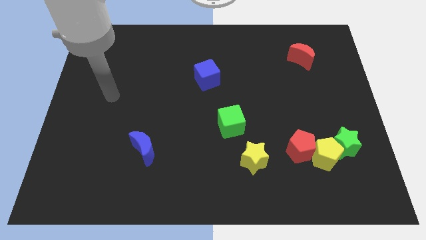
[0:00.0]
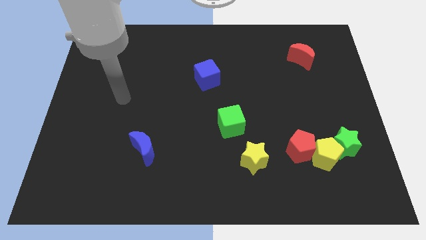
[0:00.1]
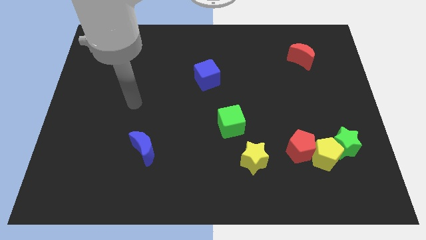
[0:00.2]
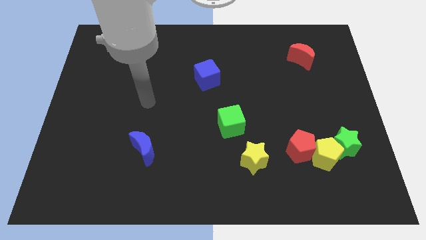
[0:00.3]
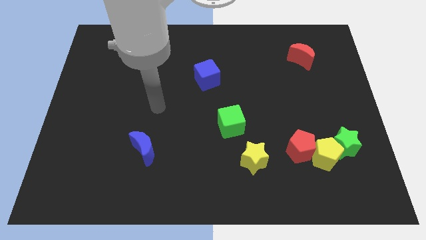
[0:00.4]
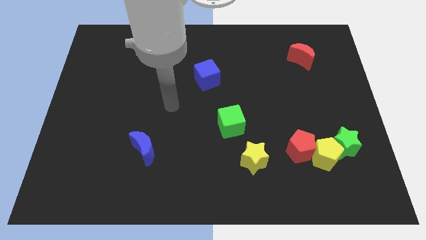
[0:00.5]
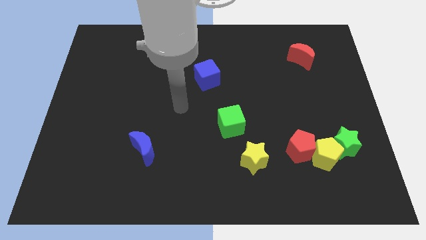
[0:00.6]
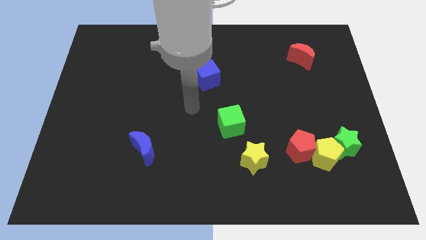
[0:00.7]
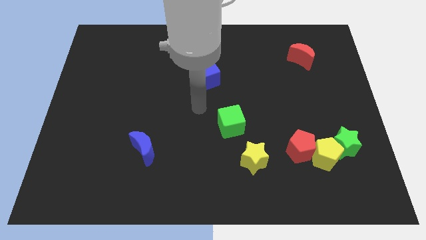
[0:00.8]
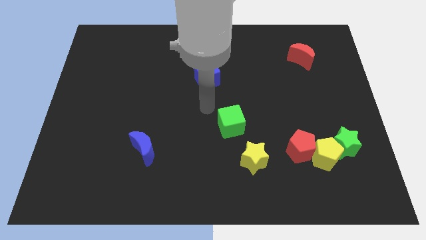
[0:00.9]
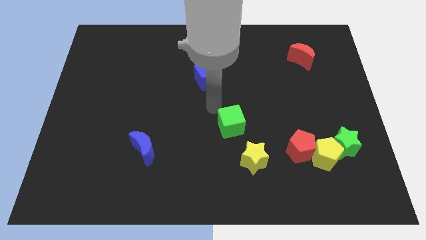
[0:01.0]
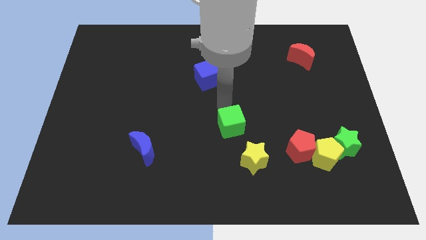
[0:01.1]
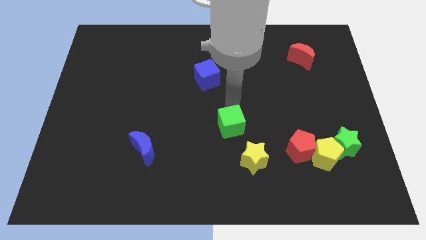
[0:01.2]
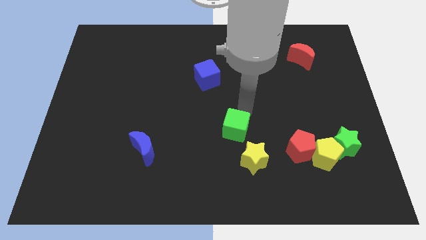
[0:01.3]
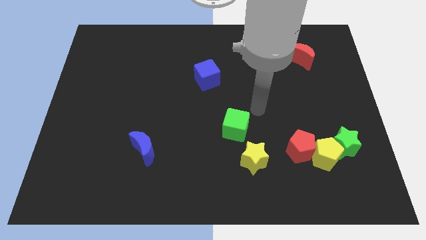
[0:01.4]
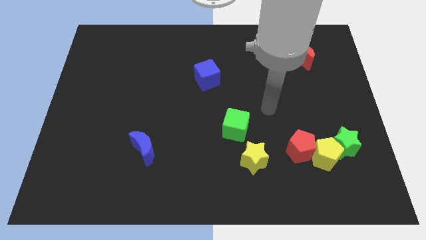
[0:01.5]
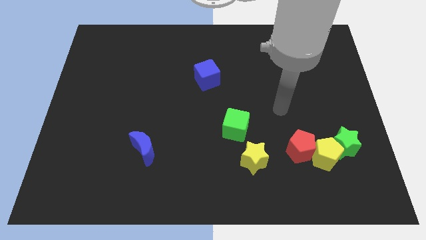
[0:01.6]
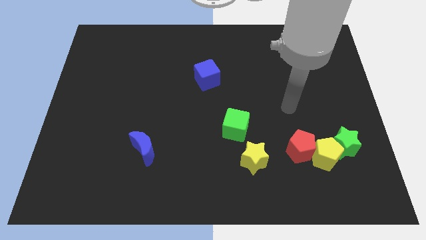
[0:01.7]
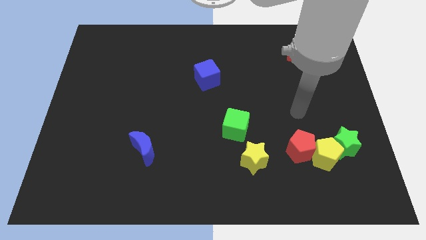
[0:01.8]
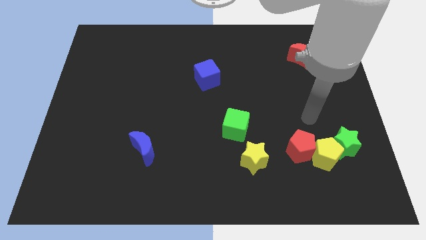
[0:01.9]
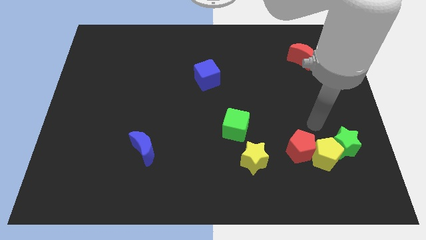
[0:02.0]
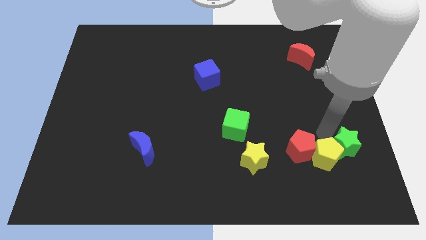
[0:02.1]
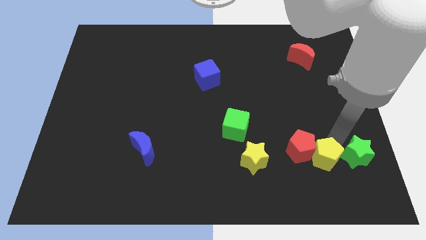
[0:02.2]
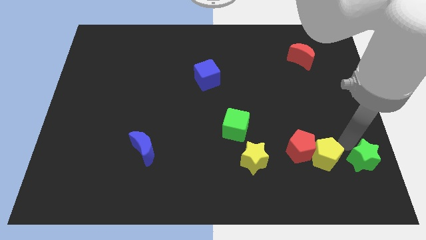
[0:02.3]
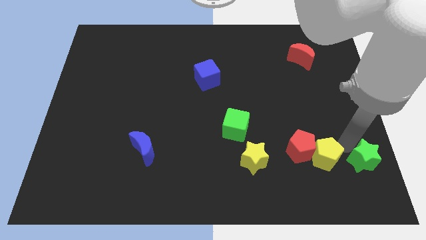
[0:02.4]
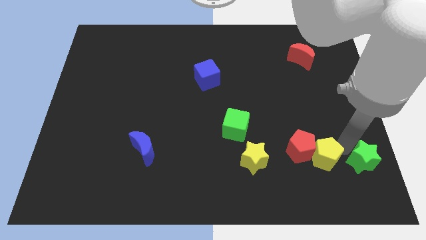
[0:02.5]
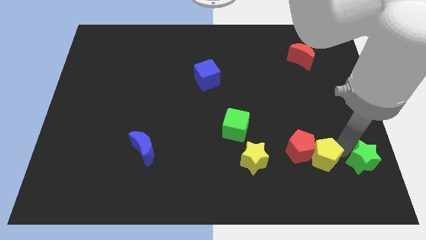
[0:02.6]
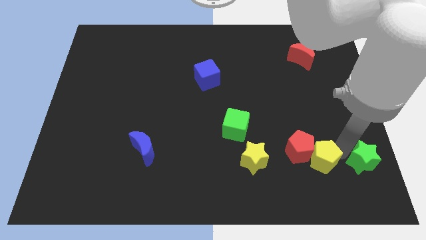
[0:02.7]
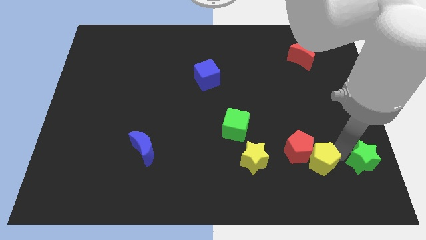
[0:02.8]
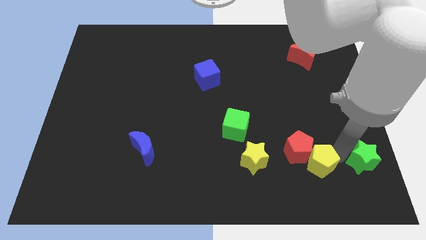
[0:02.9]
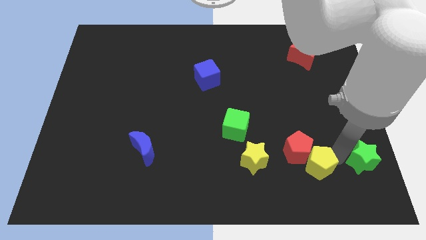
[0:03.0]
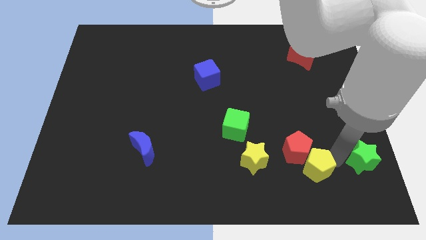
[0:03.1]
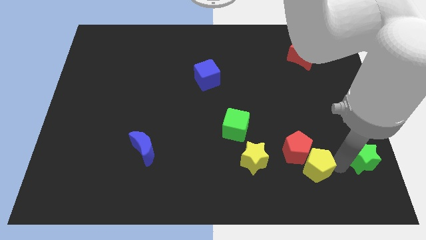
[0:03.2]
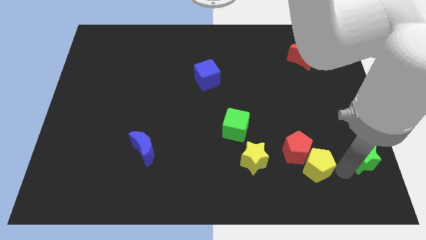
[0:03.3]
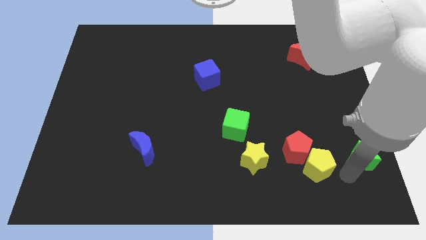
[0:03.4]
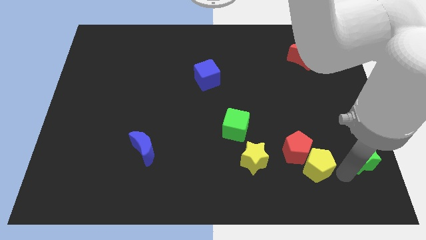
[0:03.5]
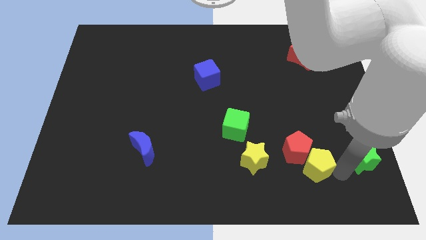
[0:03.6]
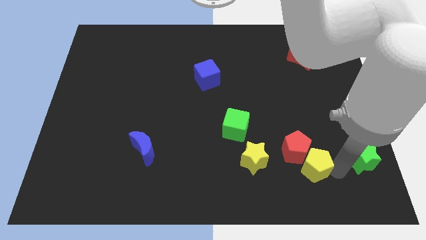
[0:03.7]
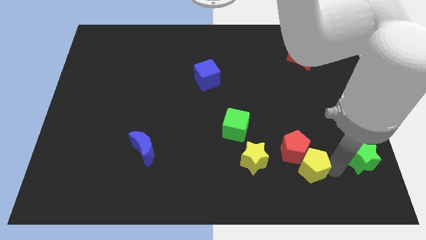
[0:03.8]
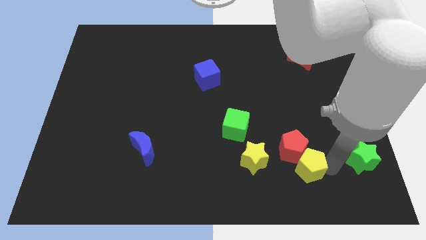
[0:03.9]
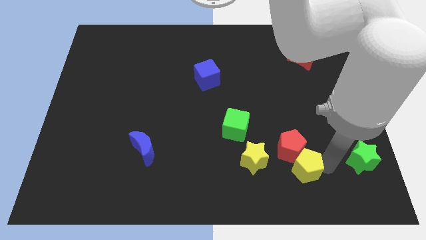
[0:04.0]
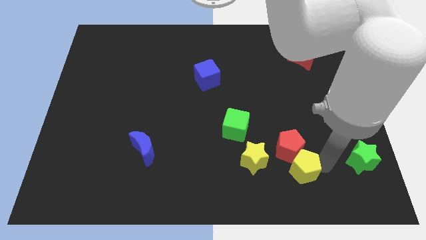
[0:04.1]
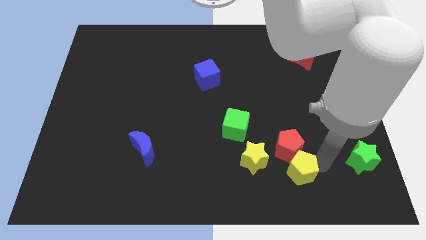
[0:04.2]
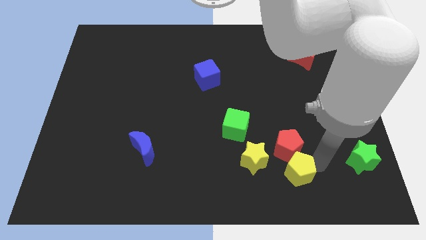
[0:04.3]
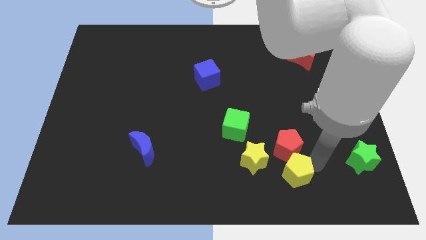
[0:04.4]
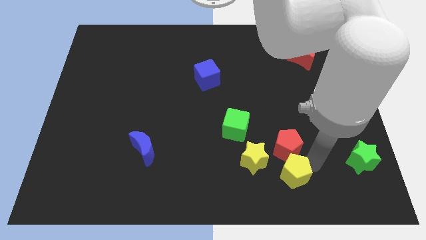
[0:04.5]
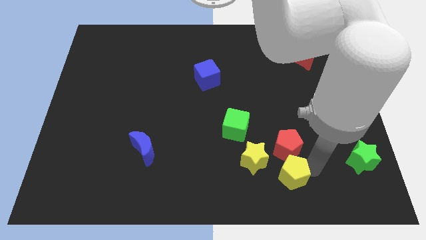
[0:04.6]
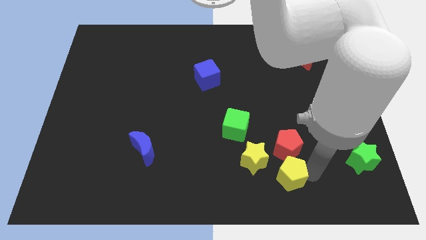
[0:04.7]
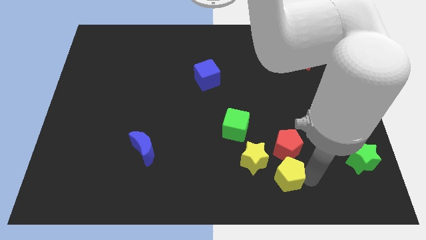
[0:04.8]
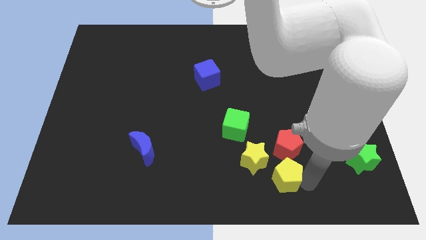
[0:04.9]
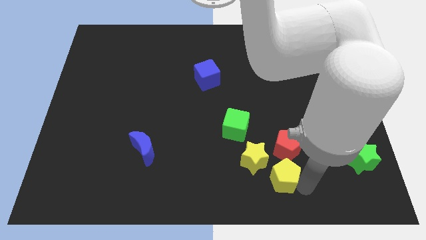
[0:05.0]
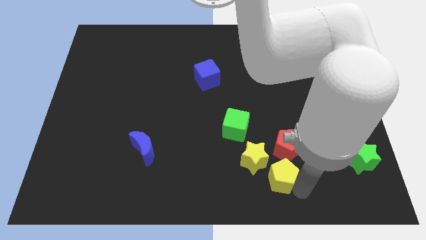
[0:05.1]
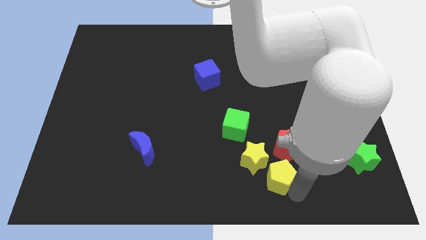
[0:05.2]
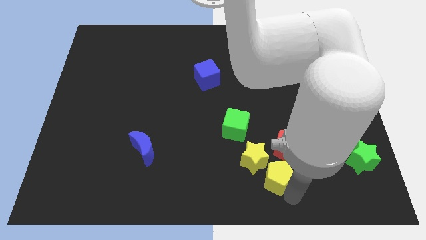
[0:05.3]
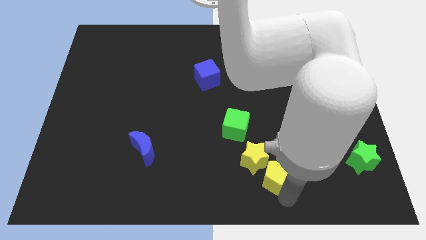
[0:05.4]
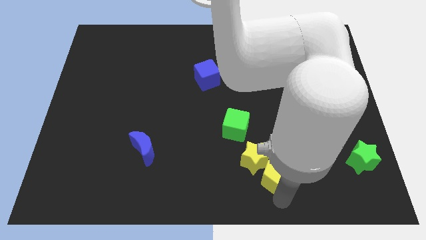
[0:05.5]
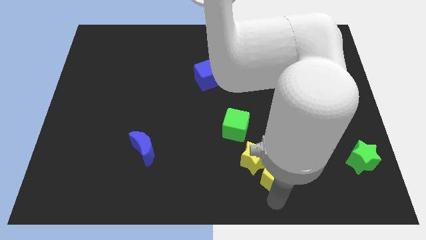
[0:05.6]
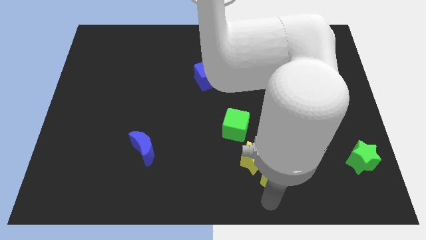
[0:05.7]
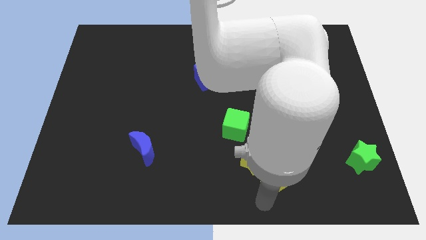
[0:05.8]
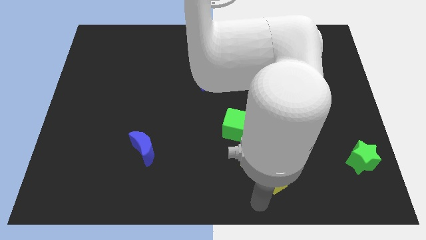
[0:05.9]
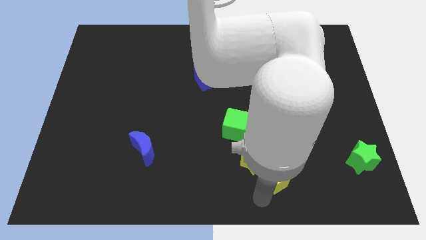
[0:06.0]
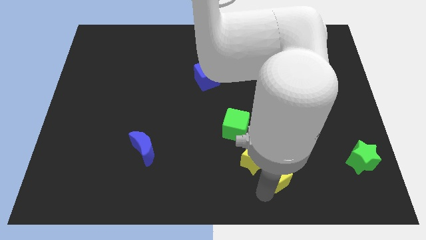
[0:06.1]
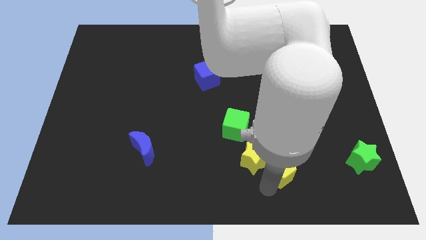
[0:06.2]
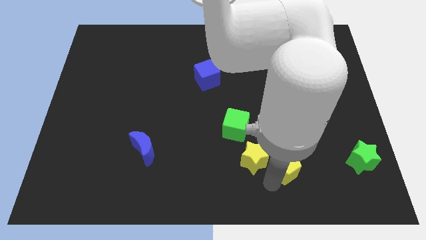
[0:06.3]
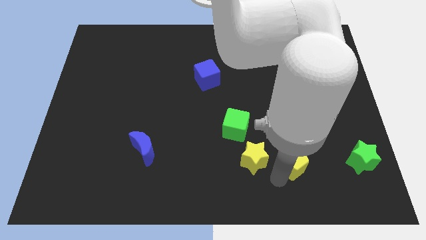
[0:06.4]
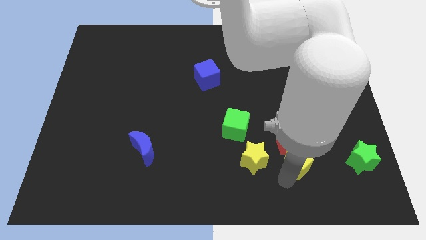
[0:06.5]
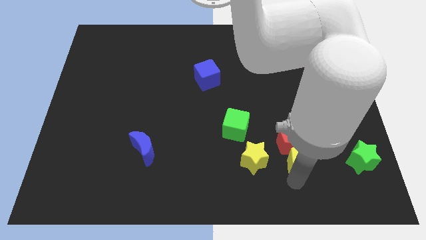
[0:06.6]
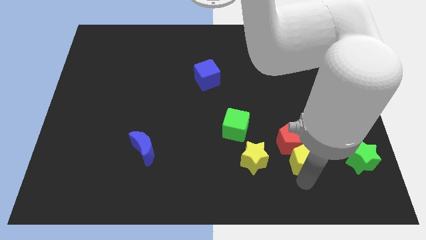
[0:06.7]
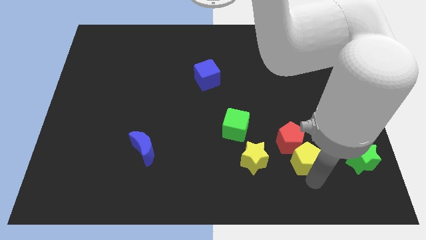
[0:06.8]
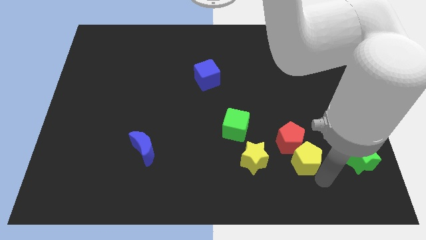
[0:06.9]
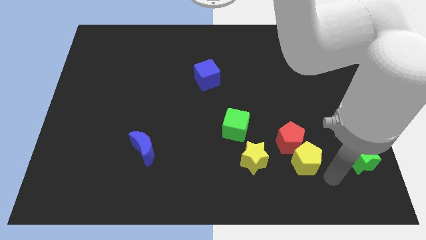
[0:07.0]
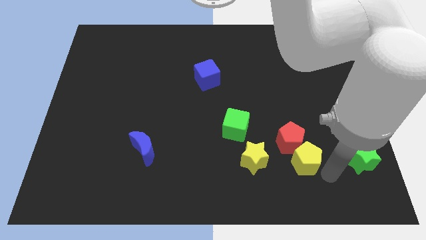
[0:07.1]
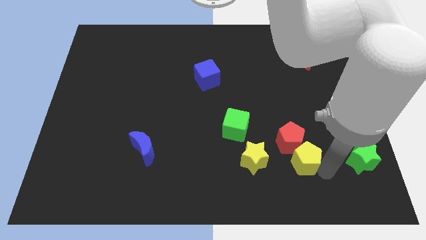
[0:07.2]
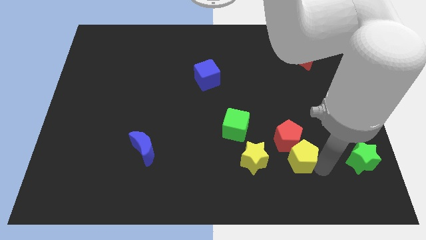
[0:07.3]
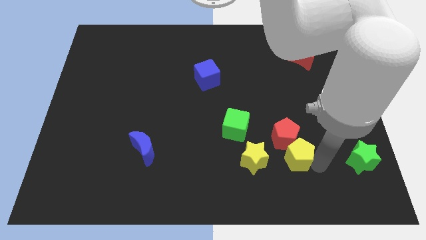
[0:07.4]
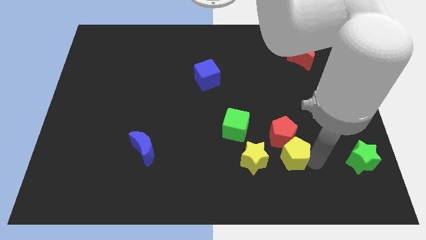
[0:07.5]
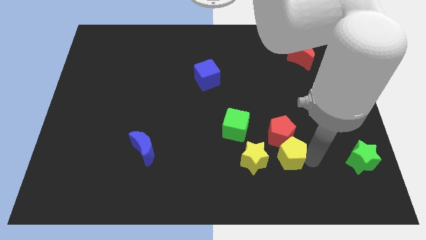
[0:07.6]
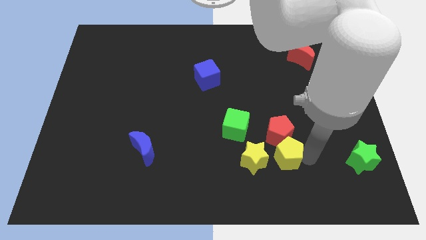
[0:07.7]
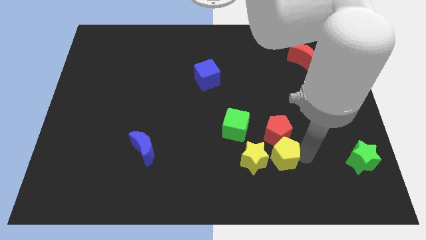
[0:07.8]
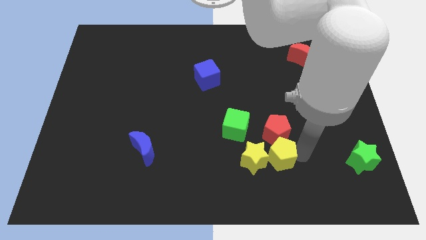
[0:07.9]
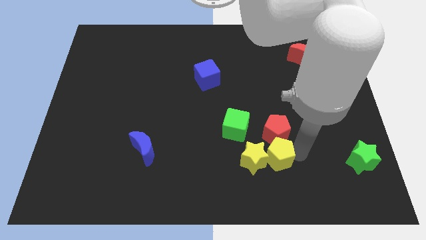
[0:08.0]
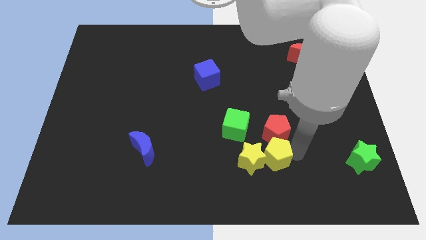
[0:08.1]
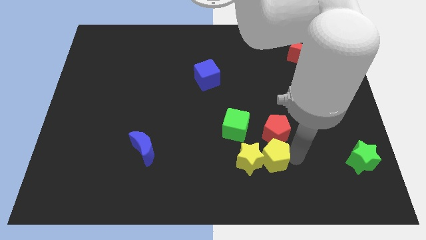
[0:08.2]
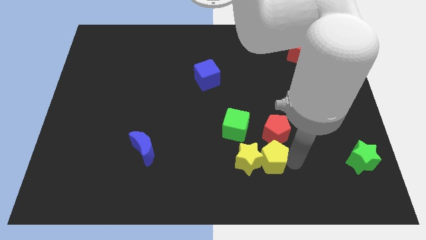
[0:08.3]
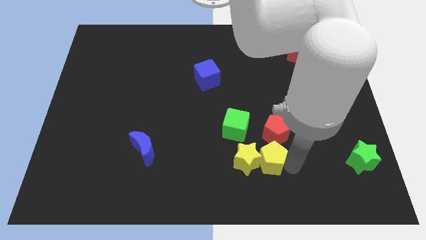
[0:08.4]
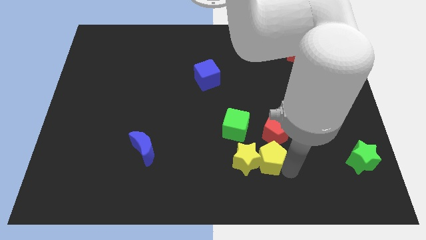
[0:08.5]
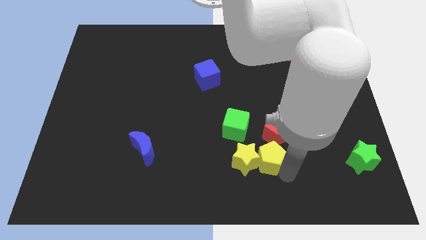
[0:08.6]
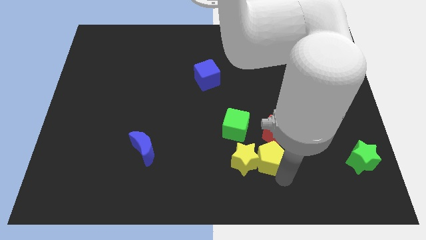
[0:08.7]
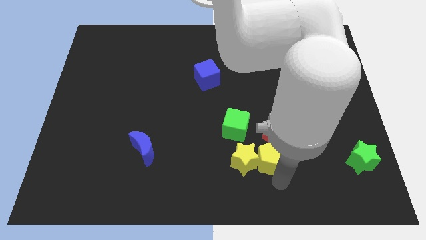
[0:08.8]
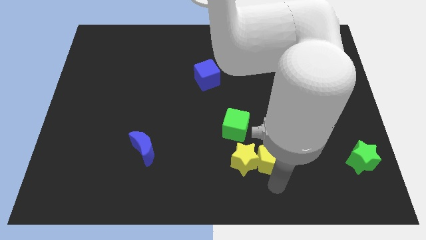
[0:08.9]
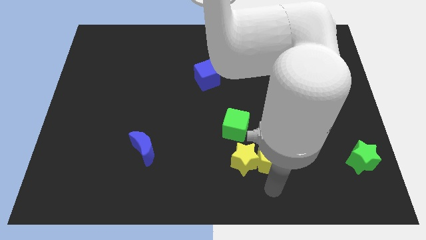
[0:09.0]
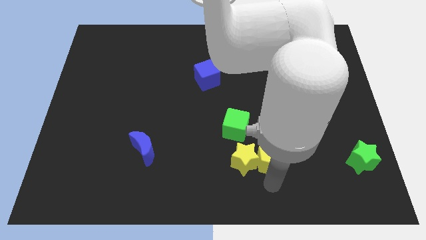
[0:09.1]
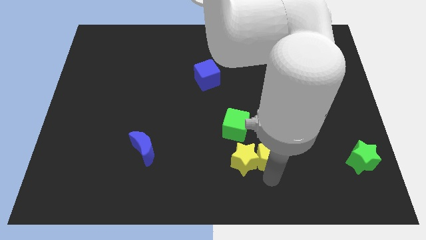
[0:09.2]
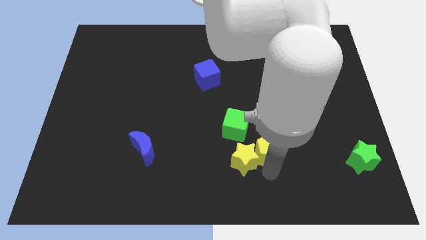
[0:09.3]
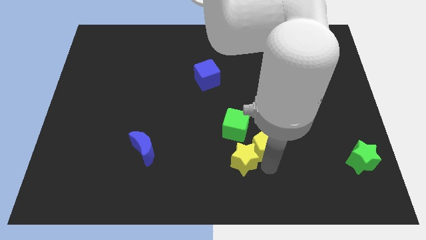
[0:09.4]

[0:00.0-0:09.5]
push the yellow pentagon above the yellow star
